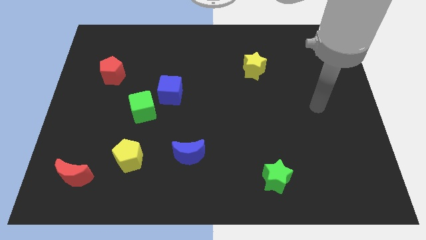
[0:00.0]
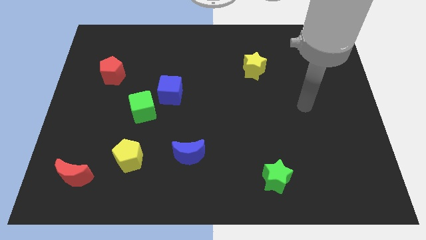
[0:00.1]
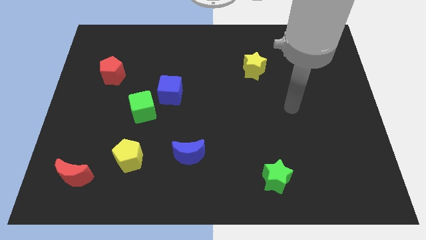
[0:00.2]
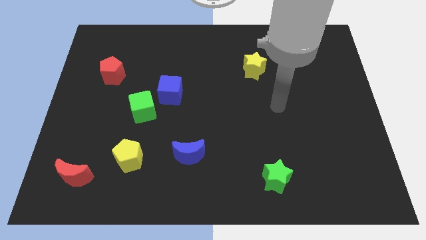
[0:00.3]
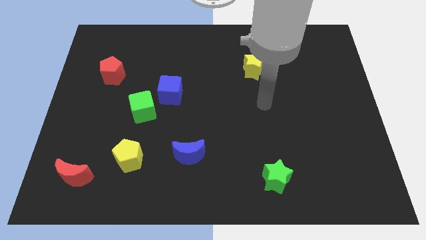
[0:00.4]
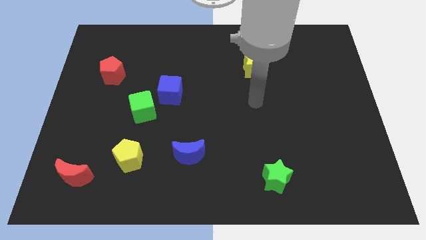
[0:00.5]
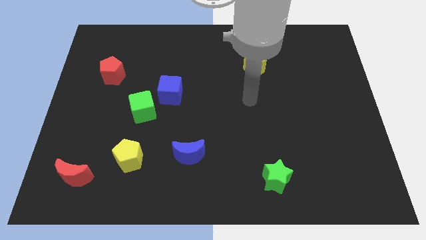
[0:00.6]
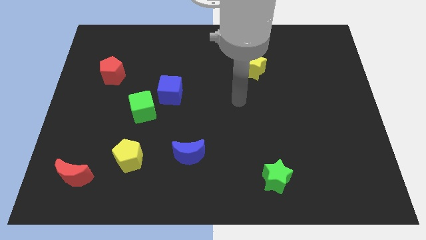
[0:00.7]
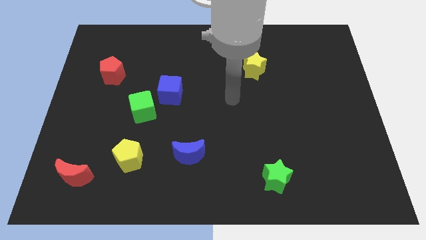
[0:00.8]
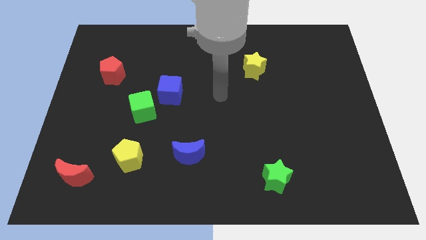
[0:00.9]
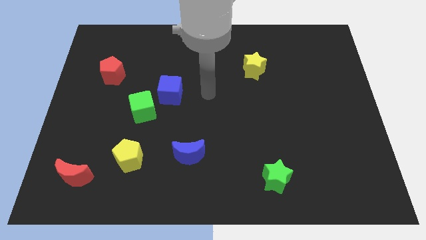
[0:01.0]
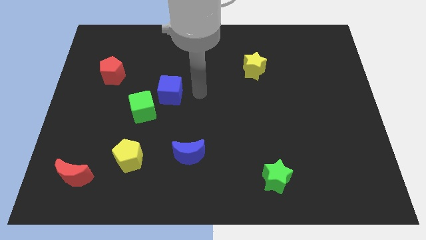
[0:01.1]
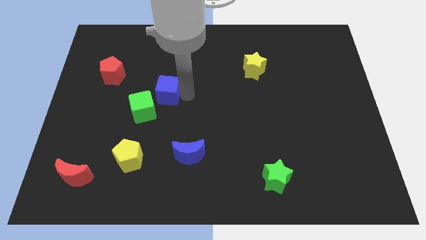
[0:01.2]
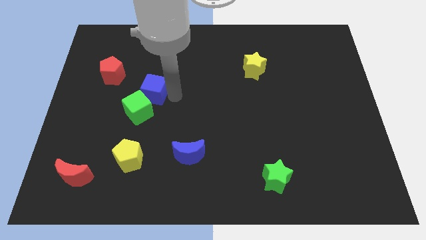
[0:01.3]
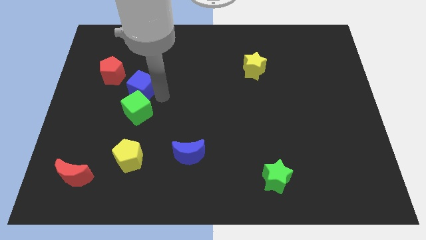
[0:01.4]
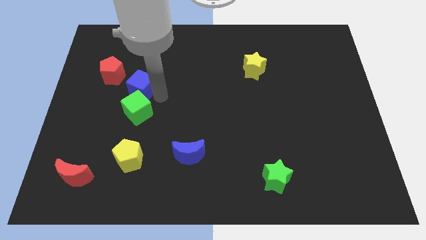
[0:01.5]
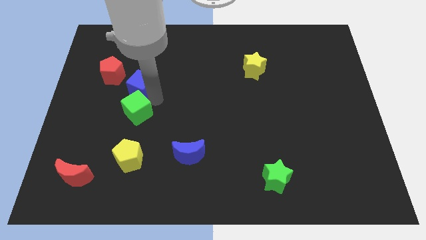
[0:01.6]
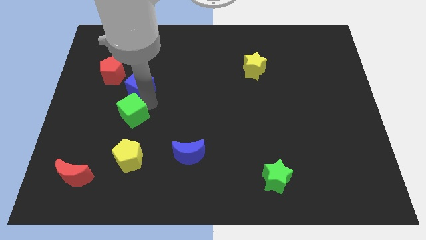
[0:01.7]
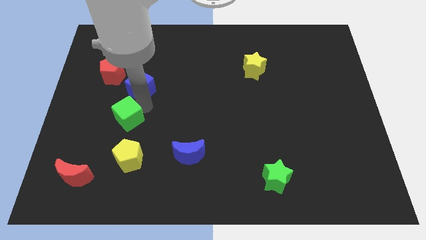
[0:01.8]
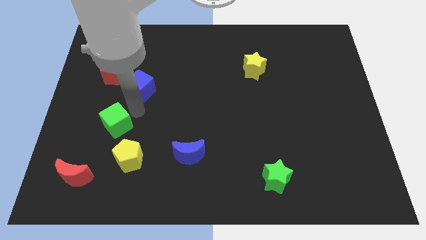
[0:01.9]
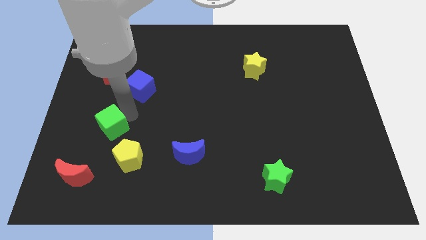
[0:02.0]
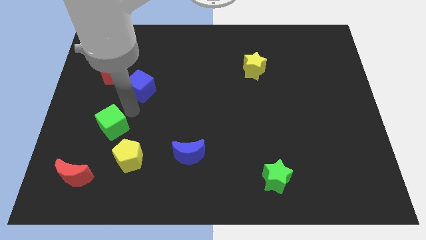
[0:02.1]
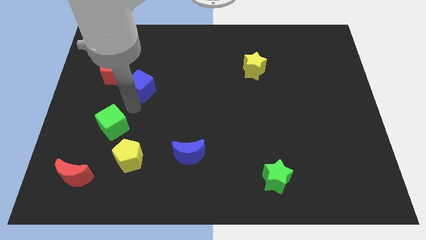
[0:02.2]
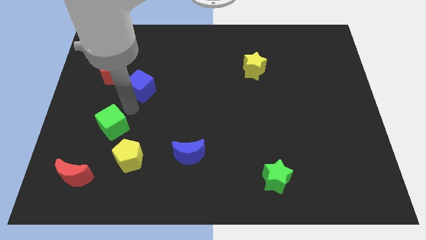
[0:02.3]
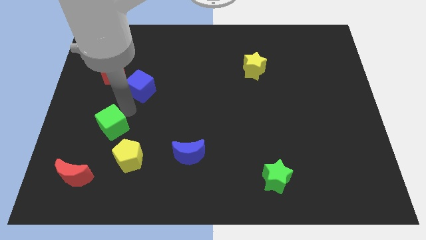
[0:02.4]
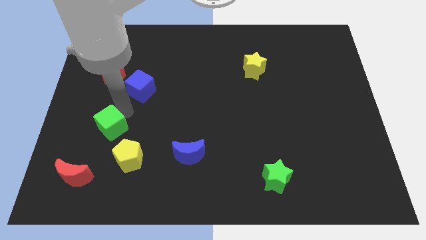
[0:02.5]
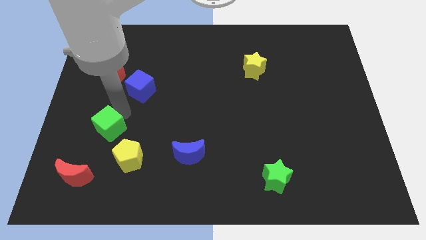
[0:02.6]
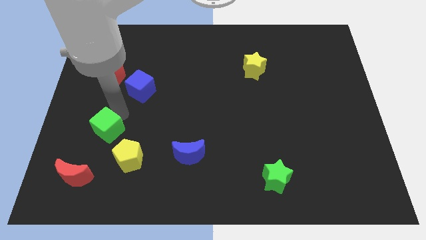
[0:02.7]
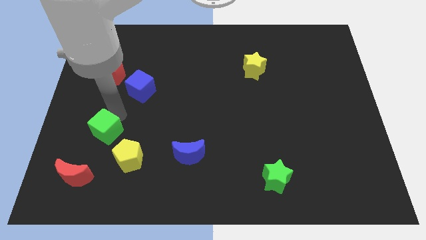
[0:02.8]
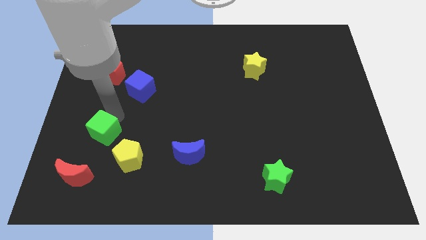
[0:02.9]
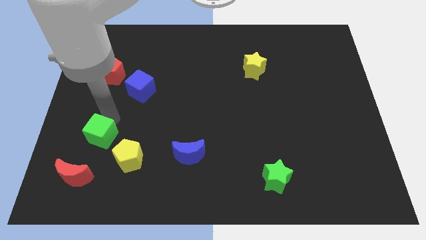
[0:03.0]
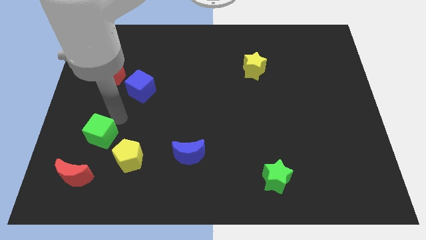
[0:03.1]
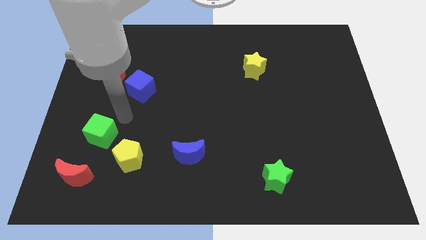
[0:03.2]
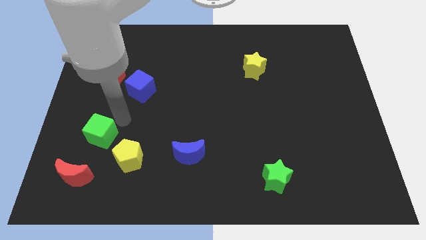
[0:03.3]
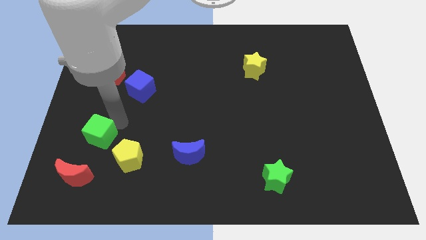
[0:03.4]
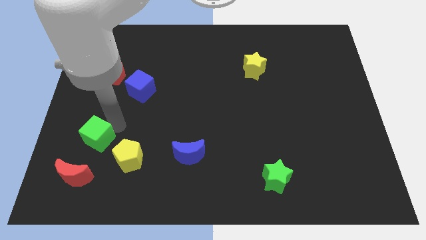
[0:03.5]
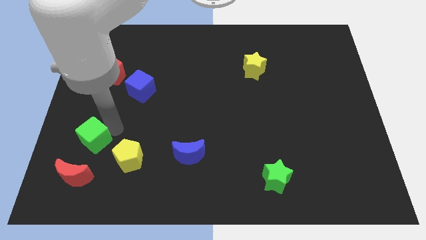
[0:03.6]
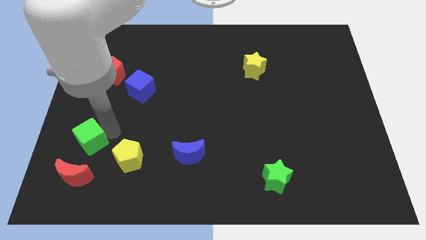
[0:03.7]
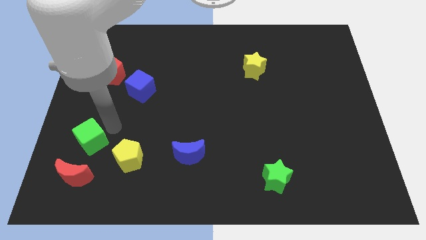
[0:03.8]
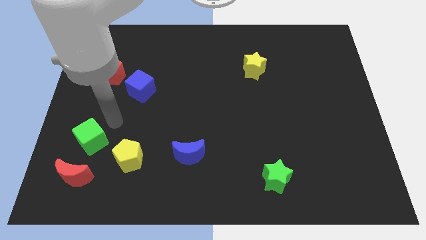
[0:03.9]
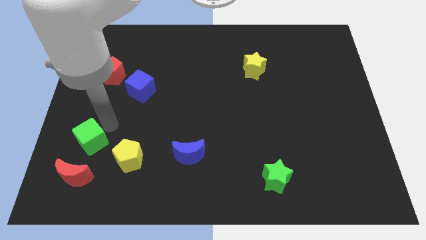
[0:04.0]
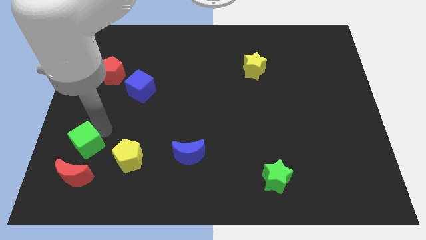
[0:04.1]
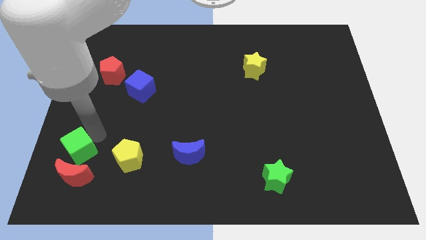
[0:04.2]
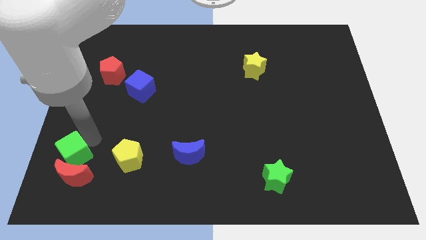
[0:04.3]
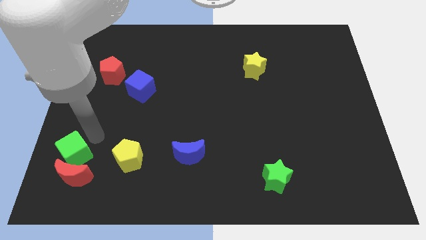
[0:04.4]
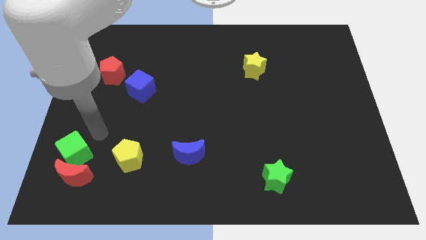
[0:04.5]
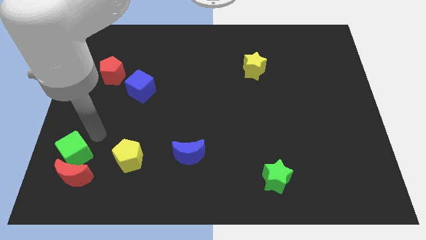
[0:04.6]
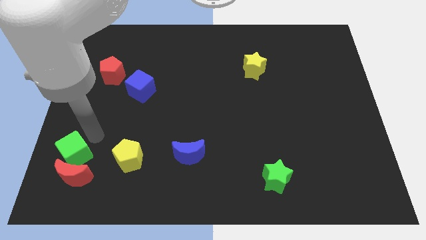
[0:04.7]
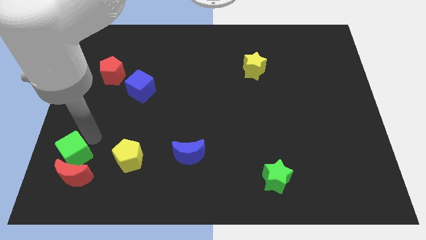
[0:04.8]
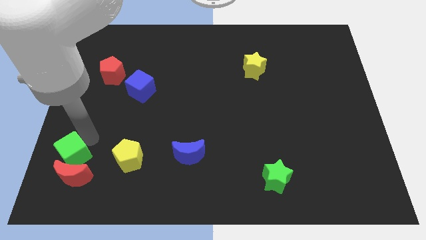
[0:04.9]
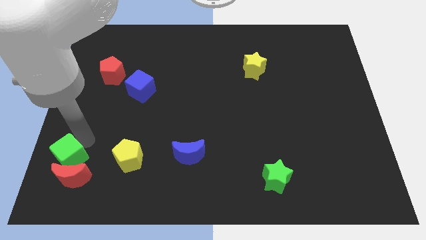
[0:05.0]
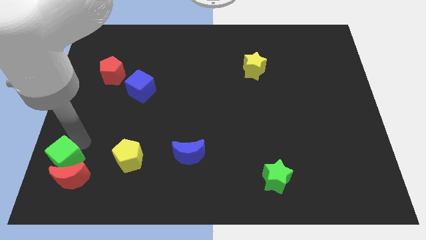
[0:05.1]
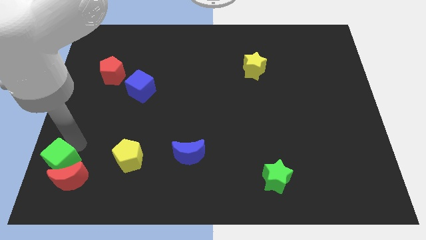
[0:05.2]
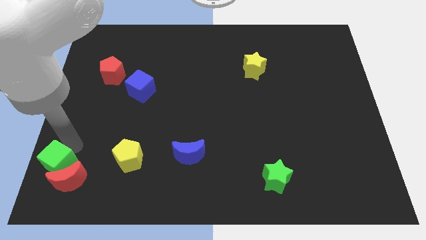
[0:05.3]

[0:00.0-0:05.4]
push the green cube to the bottom left

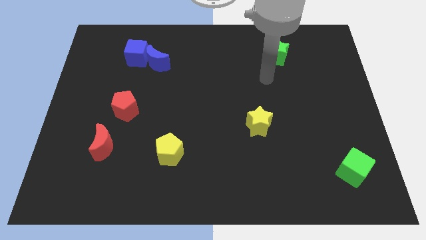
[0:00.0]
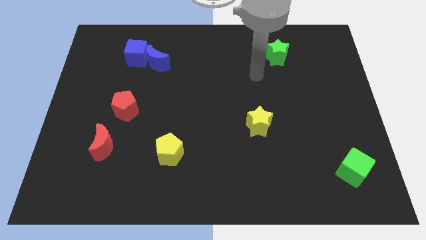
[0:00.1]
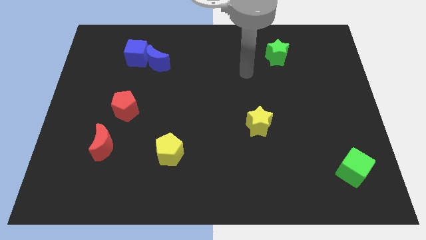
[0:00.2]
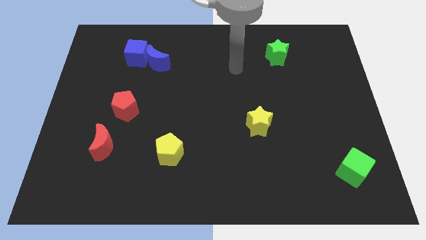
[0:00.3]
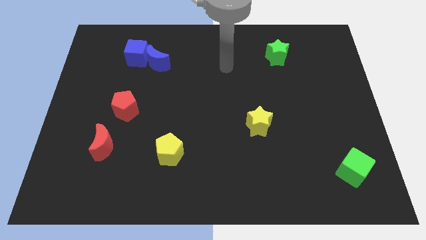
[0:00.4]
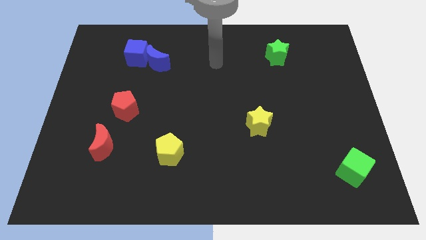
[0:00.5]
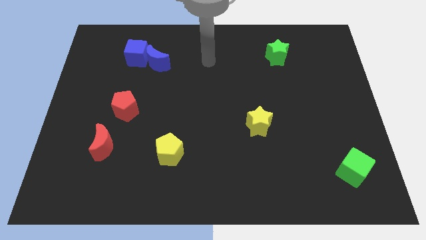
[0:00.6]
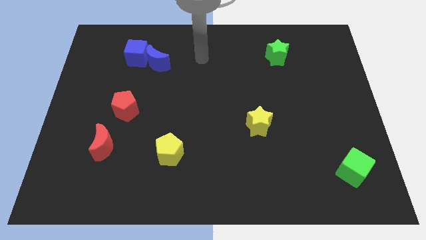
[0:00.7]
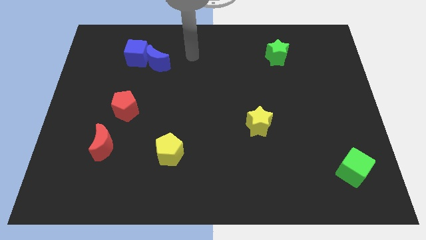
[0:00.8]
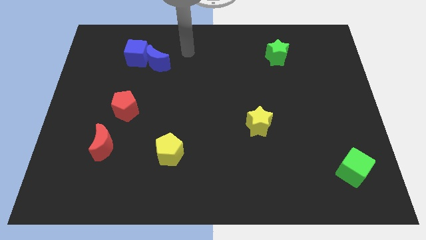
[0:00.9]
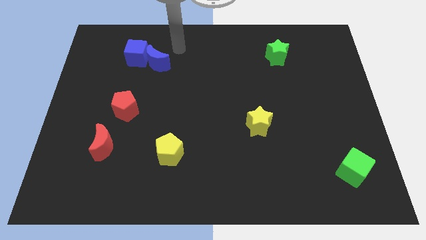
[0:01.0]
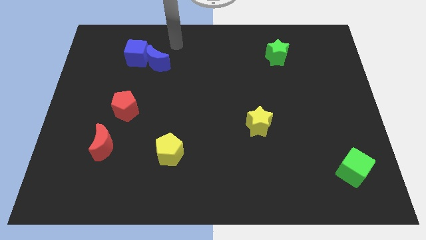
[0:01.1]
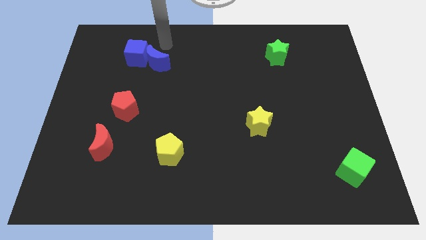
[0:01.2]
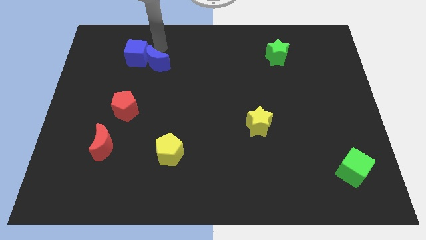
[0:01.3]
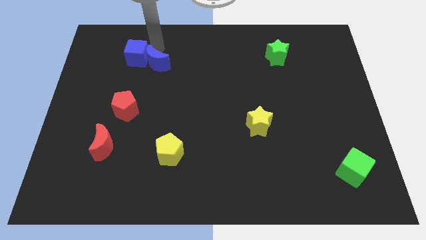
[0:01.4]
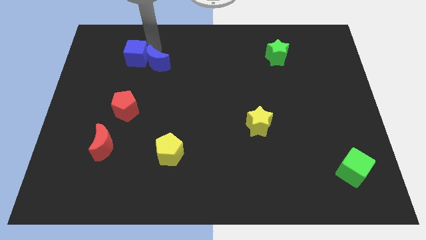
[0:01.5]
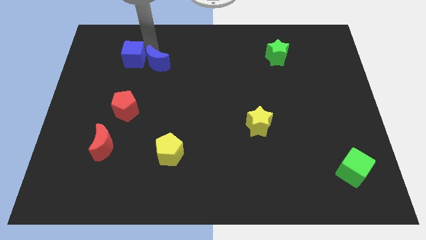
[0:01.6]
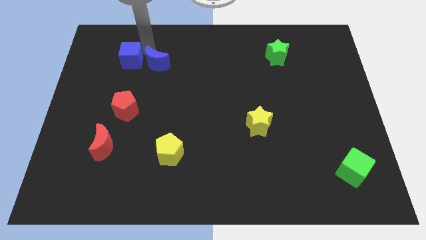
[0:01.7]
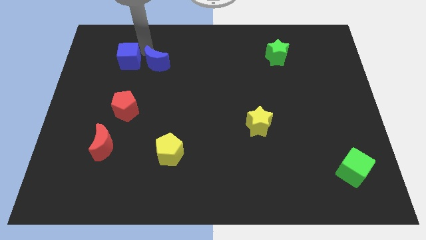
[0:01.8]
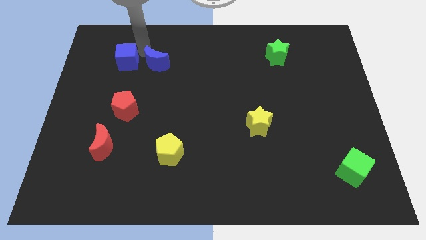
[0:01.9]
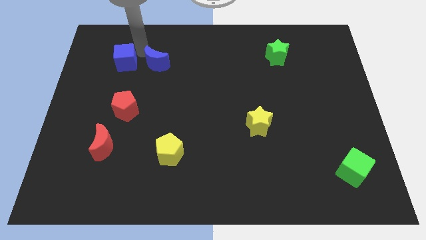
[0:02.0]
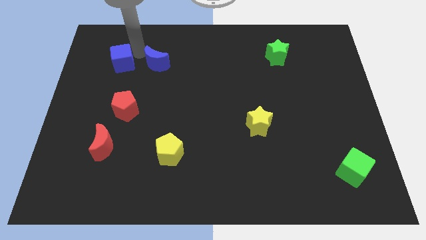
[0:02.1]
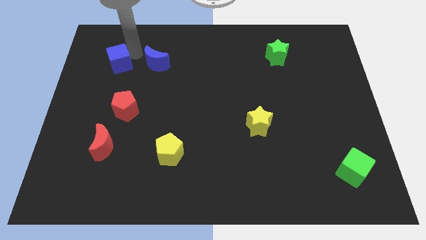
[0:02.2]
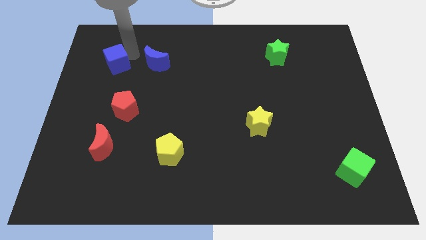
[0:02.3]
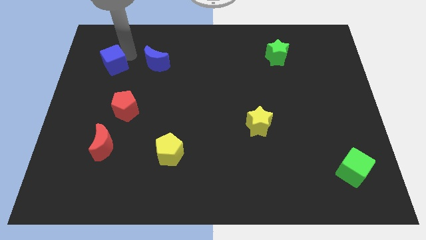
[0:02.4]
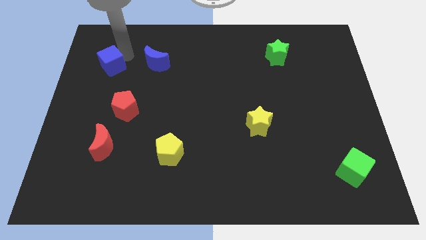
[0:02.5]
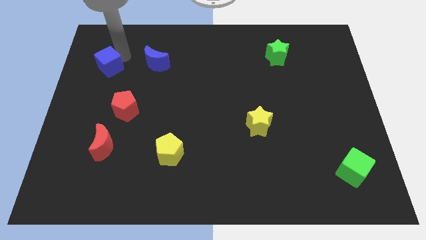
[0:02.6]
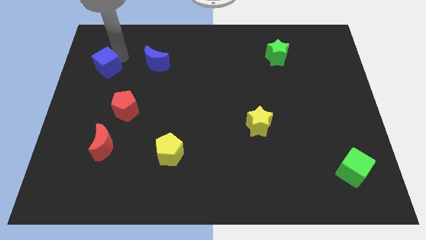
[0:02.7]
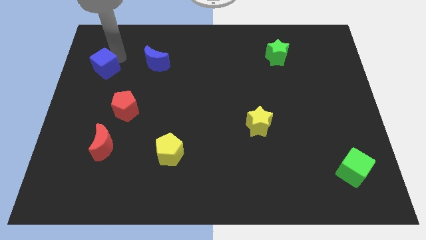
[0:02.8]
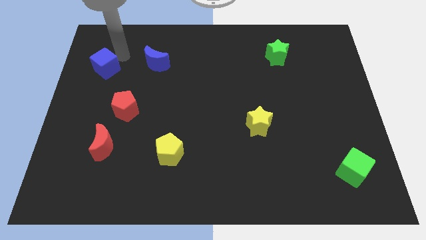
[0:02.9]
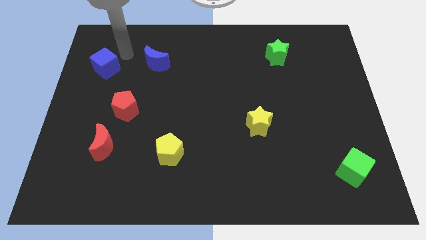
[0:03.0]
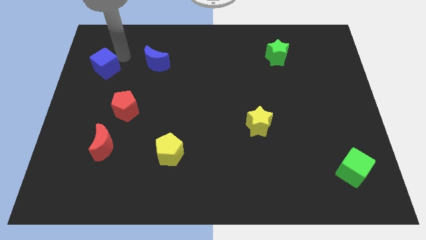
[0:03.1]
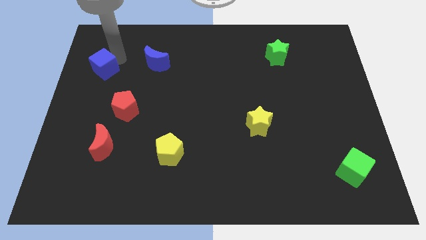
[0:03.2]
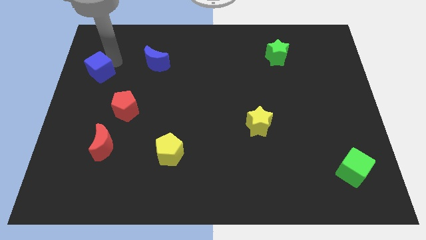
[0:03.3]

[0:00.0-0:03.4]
move the blue cube to the center left
